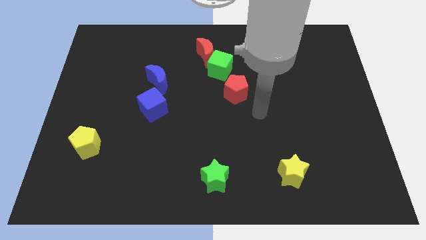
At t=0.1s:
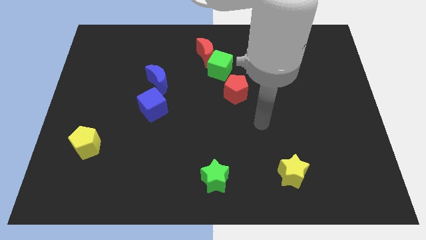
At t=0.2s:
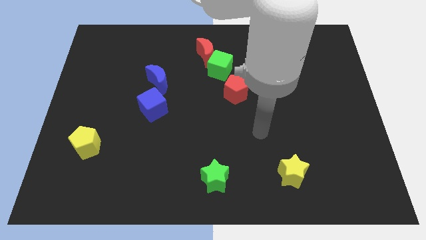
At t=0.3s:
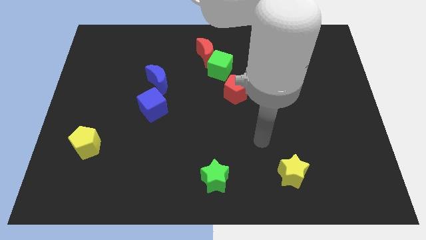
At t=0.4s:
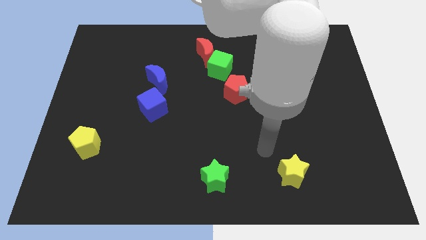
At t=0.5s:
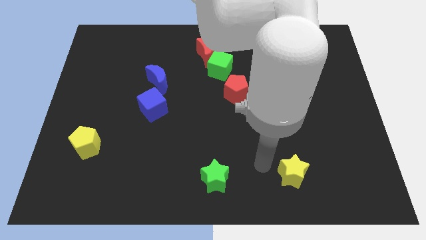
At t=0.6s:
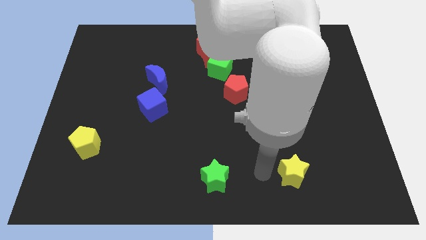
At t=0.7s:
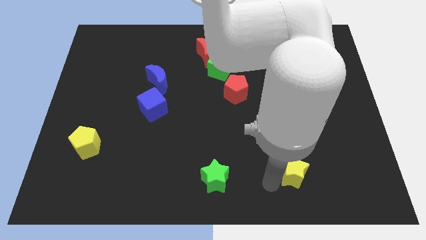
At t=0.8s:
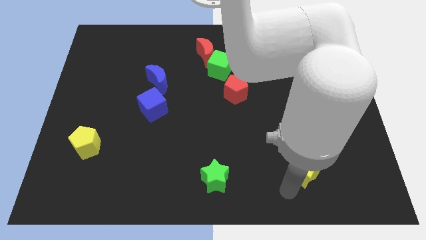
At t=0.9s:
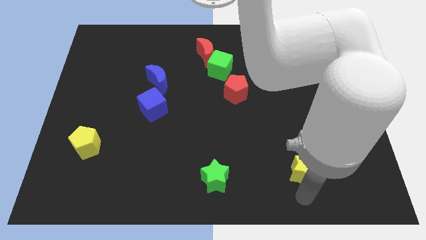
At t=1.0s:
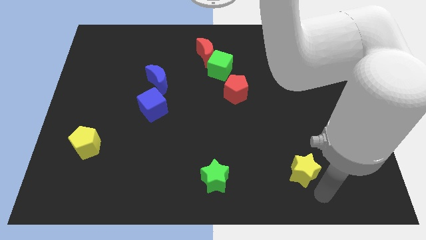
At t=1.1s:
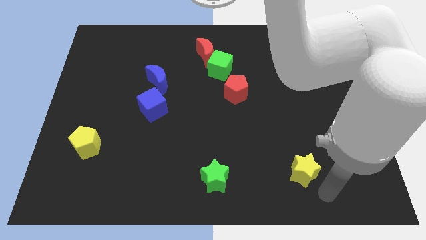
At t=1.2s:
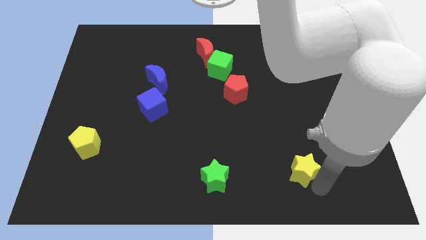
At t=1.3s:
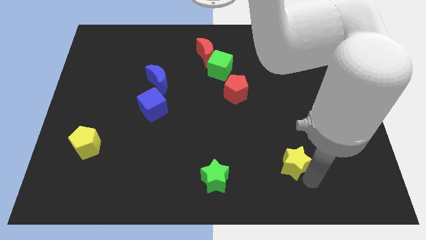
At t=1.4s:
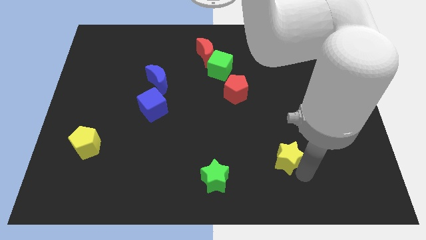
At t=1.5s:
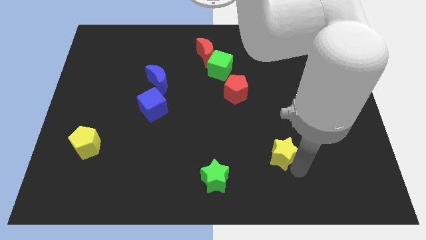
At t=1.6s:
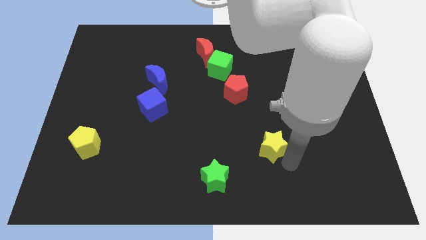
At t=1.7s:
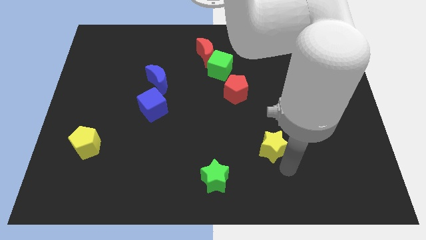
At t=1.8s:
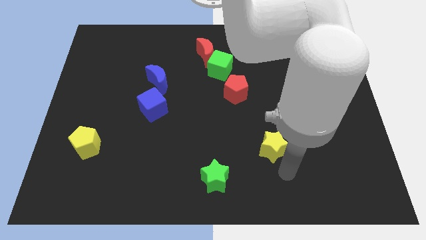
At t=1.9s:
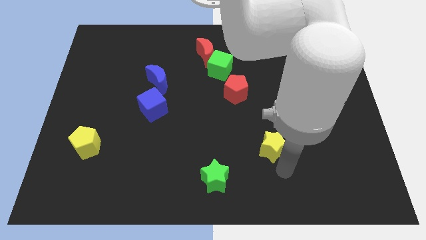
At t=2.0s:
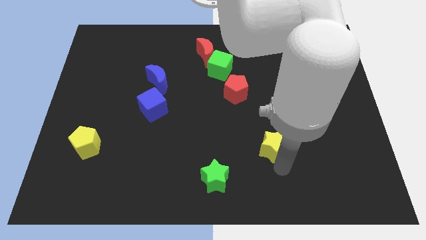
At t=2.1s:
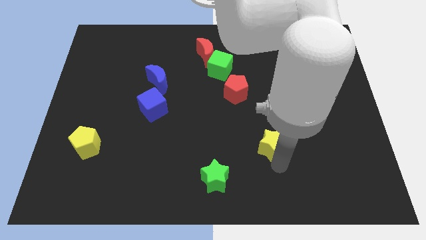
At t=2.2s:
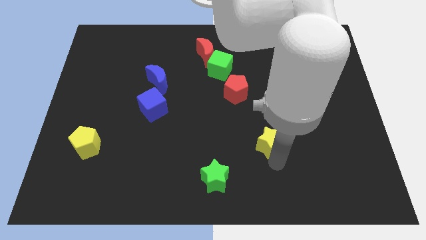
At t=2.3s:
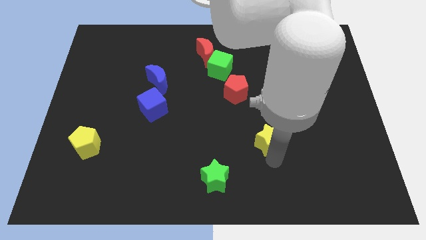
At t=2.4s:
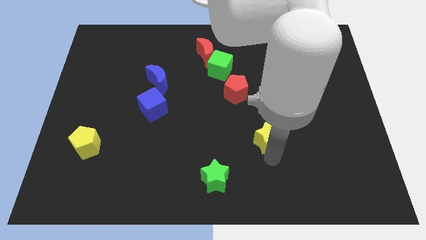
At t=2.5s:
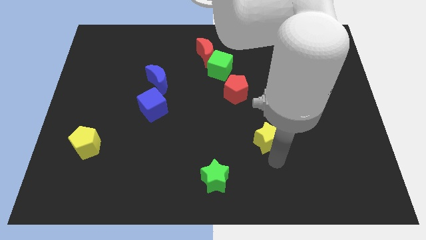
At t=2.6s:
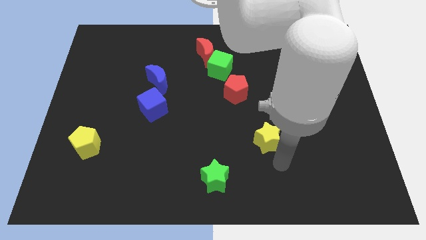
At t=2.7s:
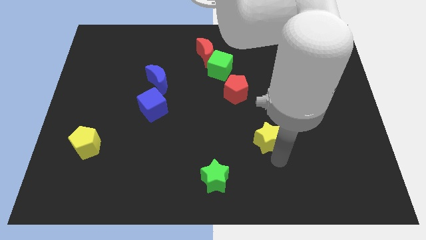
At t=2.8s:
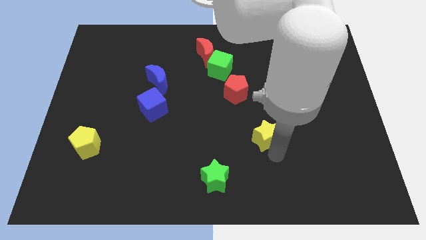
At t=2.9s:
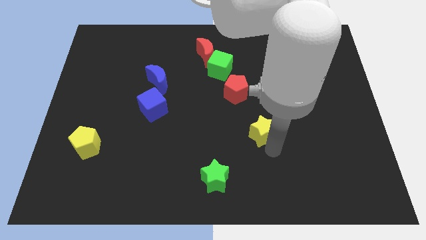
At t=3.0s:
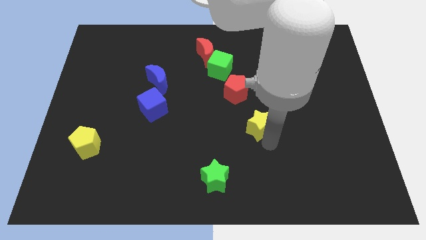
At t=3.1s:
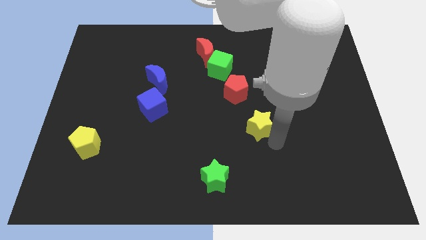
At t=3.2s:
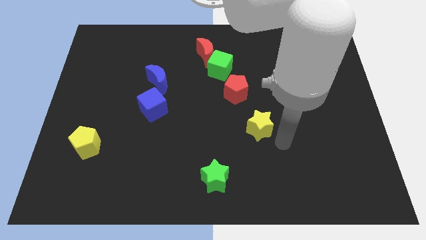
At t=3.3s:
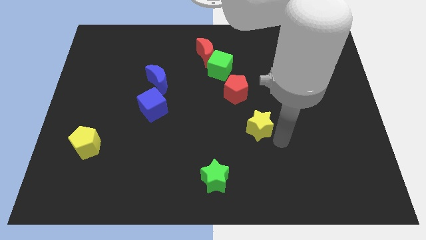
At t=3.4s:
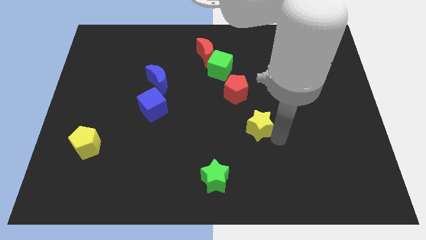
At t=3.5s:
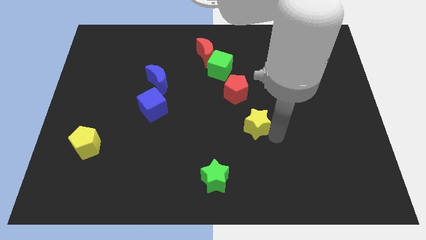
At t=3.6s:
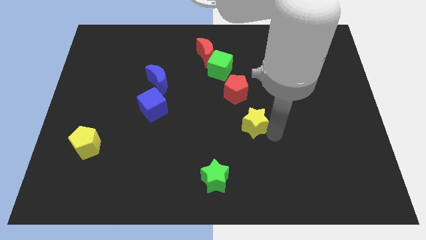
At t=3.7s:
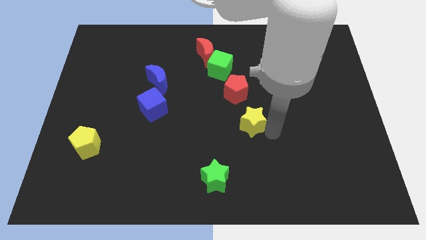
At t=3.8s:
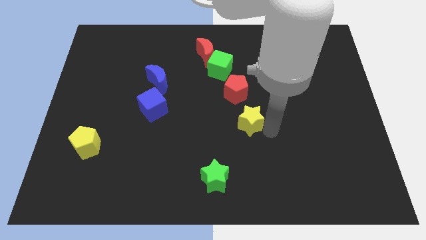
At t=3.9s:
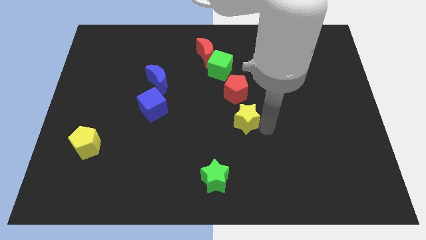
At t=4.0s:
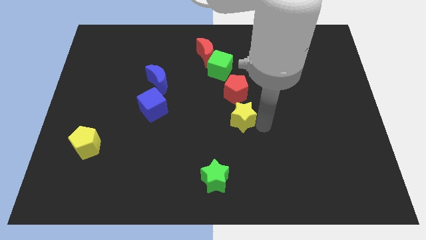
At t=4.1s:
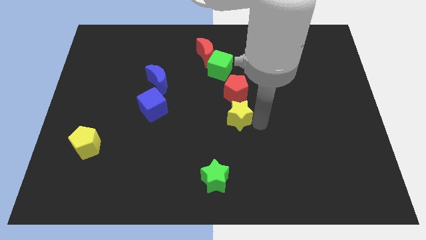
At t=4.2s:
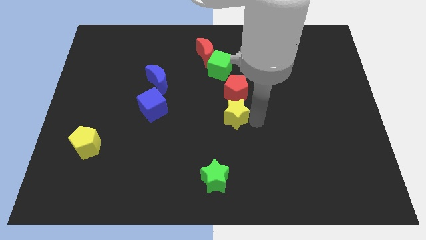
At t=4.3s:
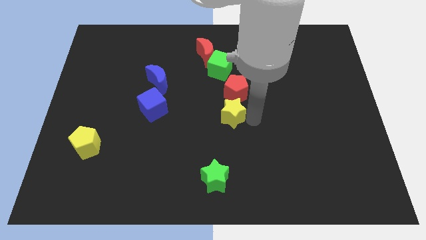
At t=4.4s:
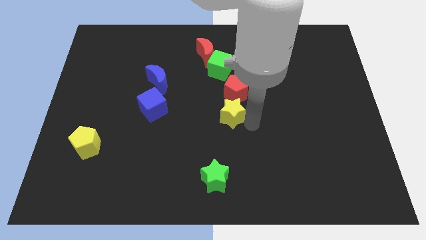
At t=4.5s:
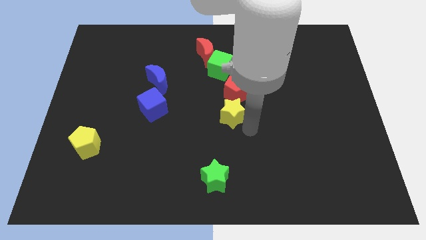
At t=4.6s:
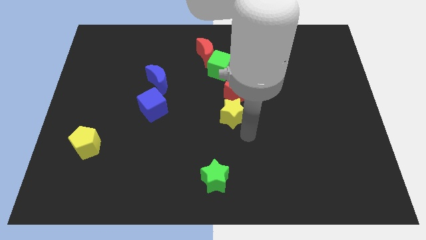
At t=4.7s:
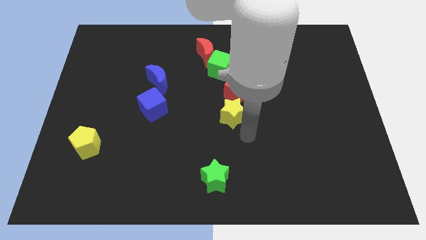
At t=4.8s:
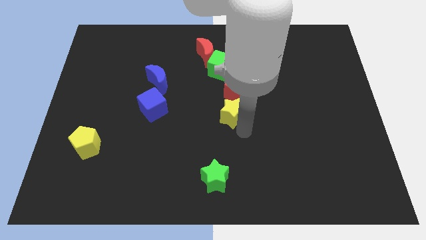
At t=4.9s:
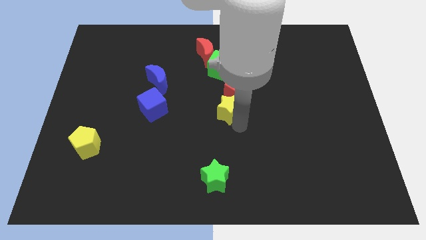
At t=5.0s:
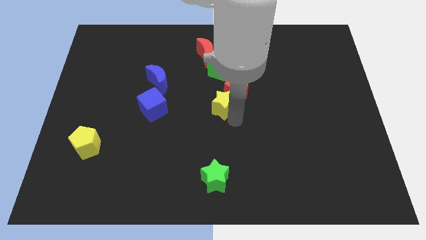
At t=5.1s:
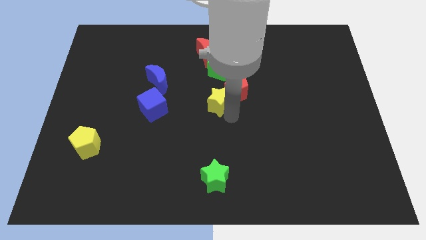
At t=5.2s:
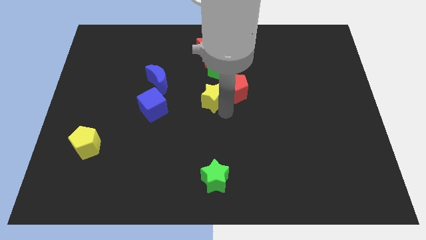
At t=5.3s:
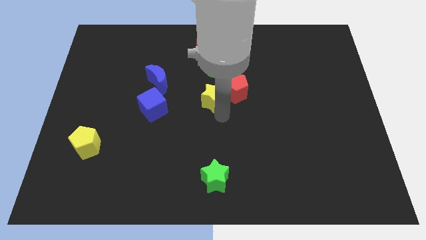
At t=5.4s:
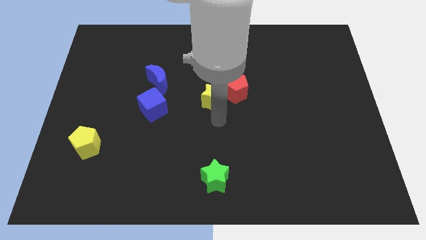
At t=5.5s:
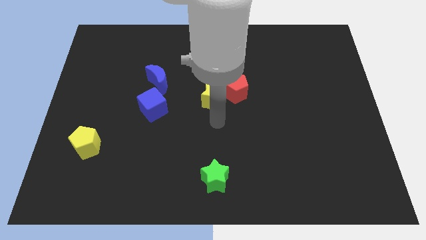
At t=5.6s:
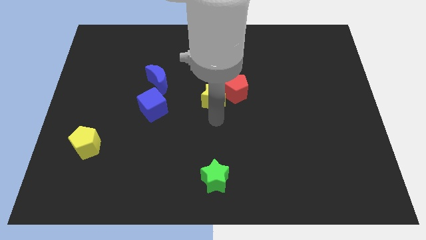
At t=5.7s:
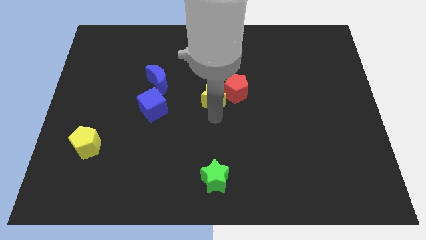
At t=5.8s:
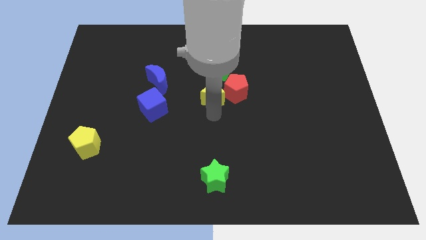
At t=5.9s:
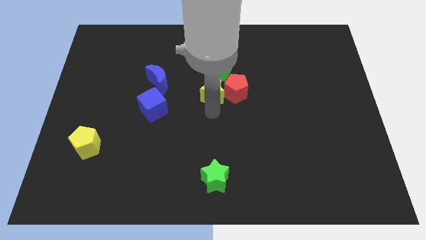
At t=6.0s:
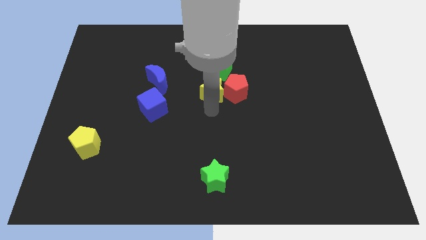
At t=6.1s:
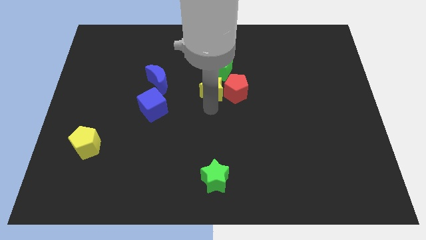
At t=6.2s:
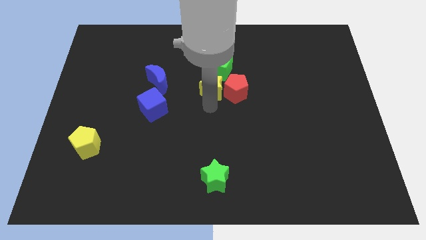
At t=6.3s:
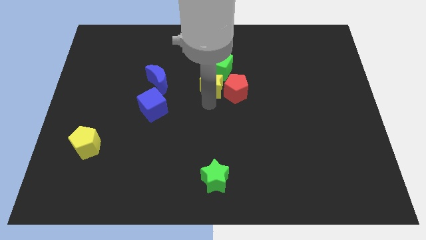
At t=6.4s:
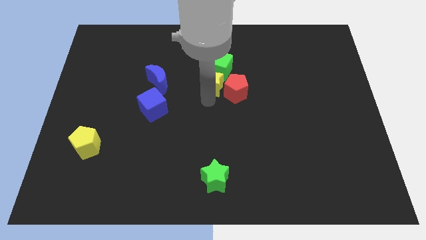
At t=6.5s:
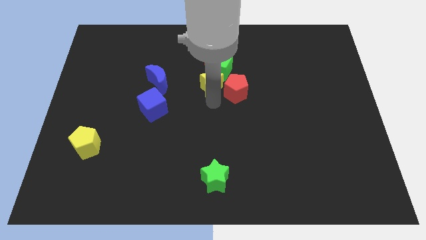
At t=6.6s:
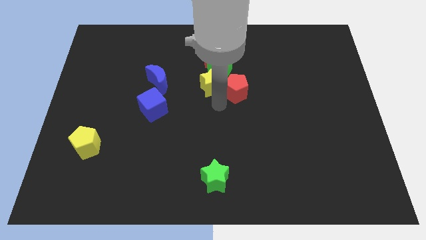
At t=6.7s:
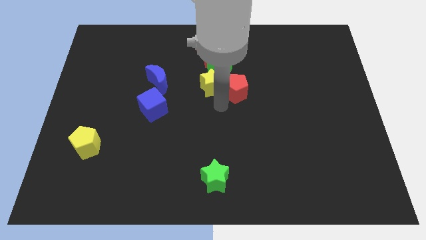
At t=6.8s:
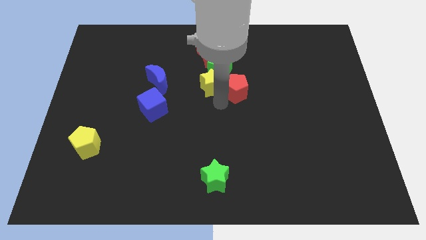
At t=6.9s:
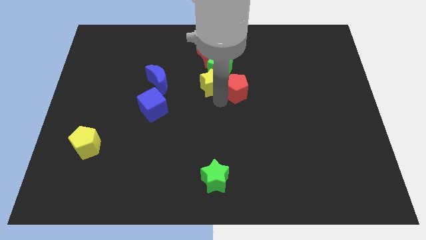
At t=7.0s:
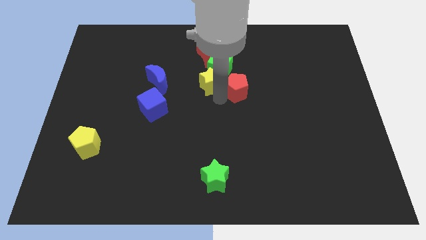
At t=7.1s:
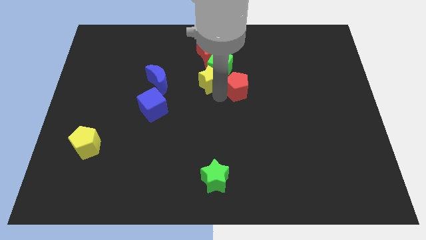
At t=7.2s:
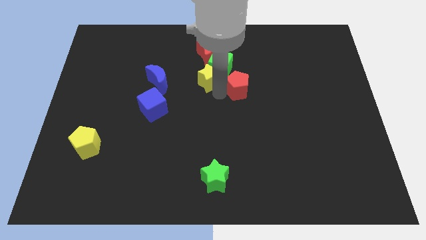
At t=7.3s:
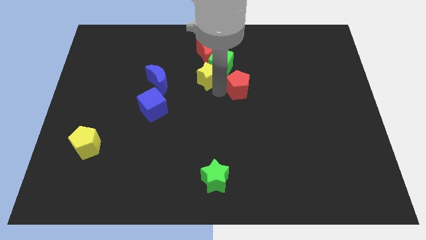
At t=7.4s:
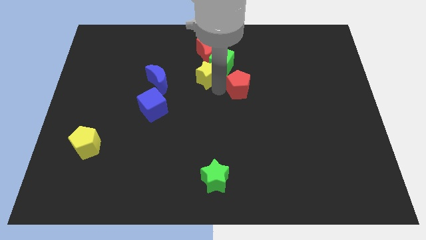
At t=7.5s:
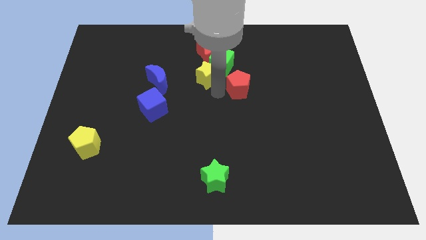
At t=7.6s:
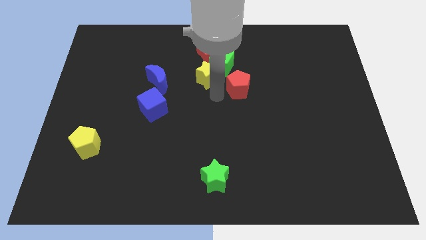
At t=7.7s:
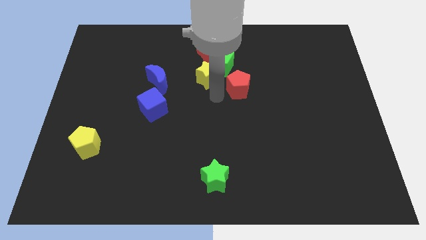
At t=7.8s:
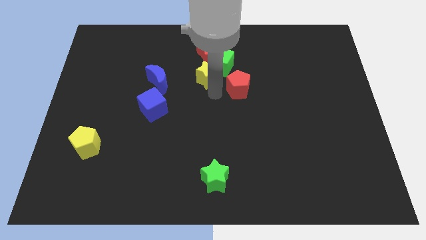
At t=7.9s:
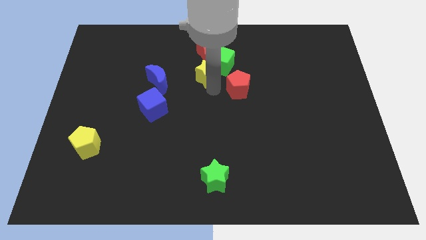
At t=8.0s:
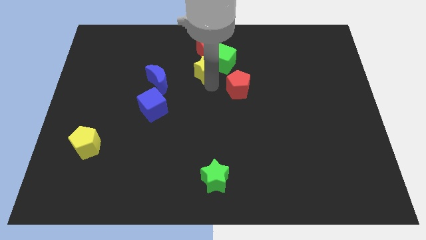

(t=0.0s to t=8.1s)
slide the yellow star close to the red moon
